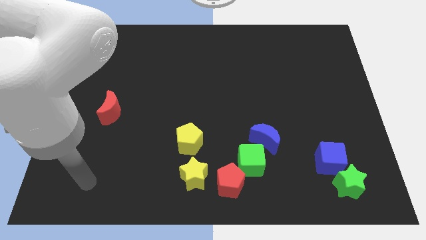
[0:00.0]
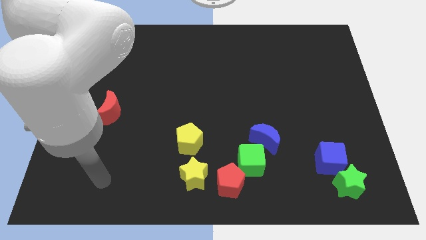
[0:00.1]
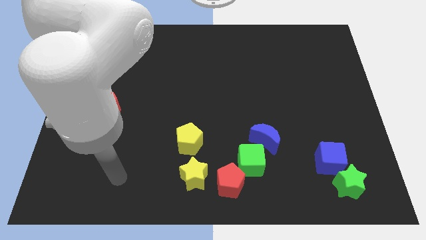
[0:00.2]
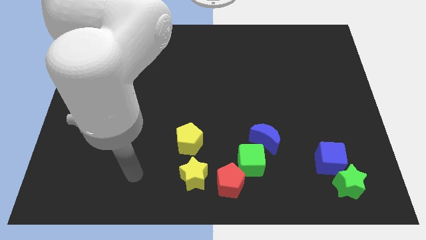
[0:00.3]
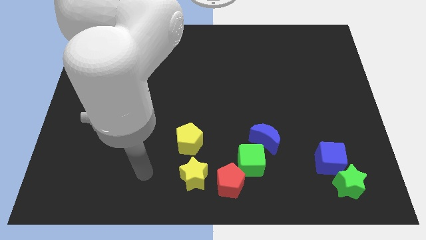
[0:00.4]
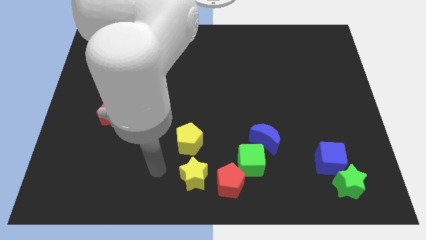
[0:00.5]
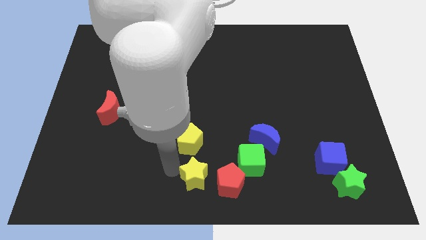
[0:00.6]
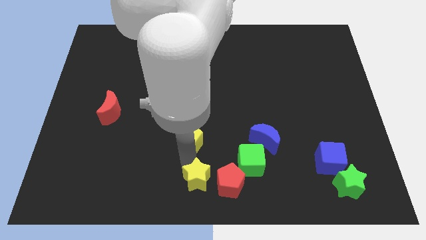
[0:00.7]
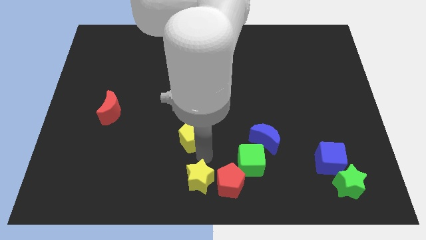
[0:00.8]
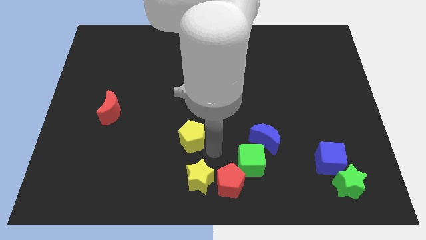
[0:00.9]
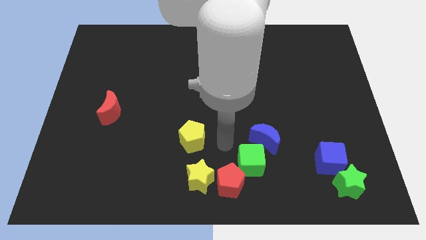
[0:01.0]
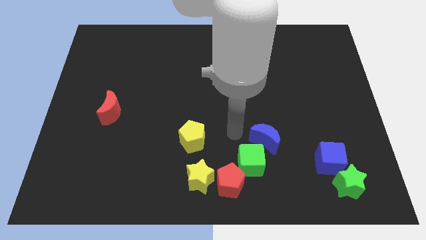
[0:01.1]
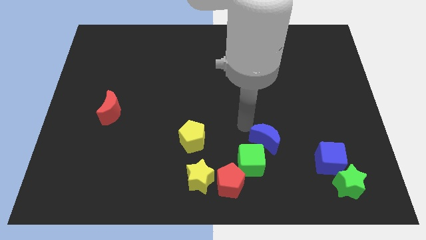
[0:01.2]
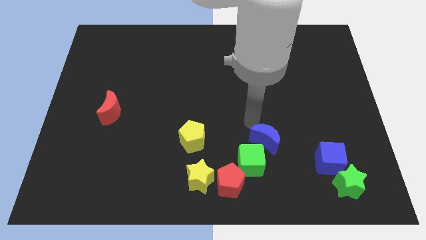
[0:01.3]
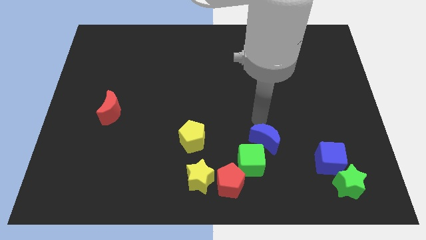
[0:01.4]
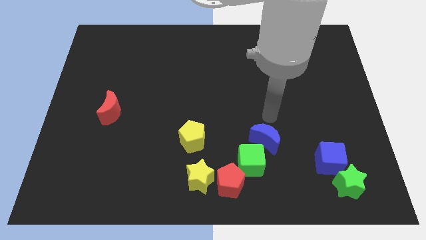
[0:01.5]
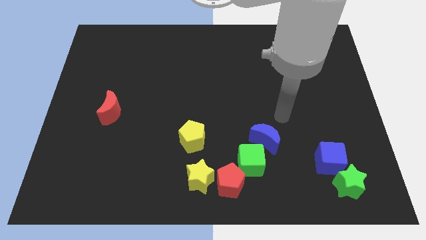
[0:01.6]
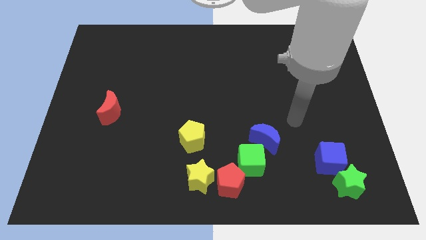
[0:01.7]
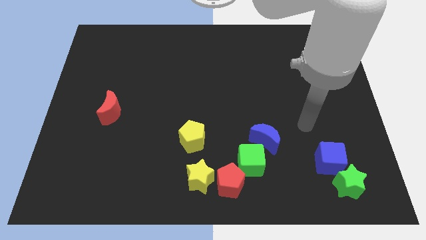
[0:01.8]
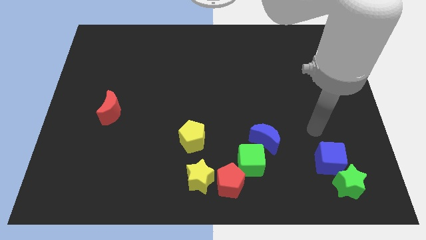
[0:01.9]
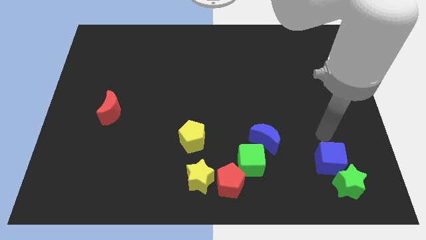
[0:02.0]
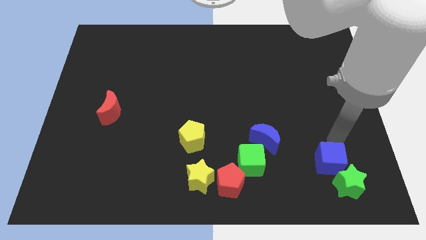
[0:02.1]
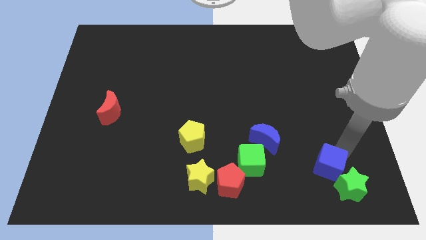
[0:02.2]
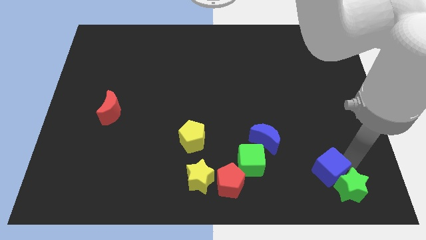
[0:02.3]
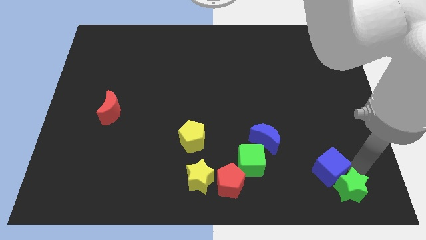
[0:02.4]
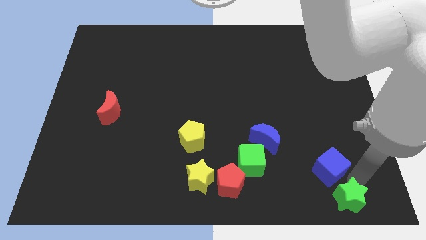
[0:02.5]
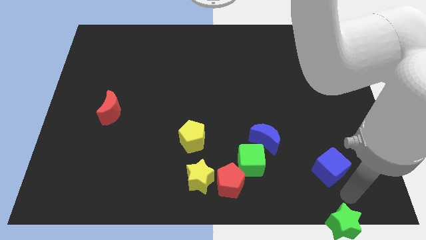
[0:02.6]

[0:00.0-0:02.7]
pull the blue cube apart from the green star

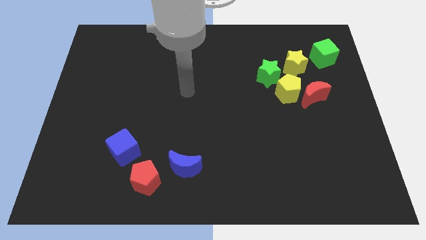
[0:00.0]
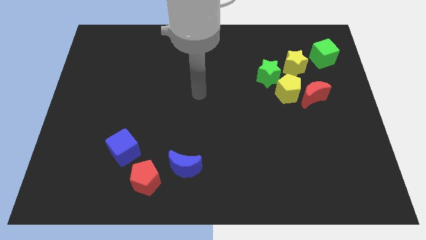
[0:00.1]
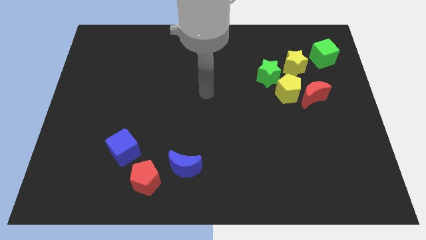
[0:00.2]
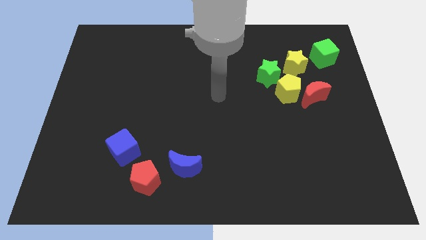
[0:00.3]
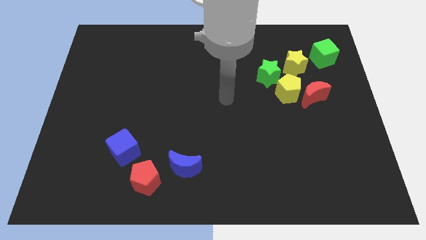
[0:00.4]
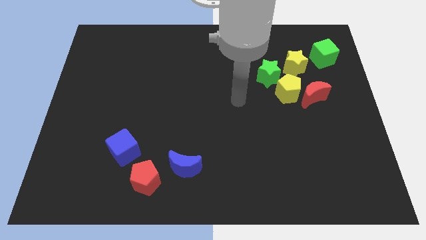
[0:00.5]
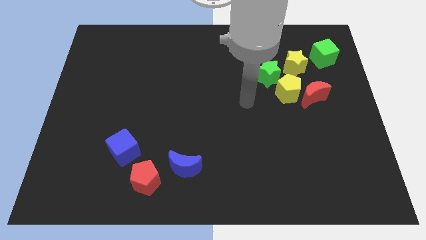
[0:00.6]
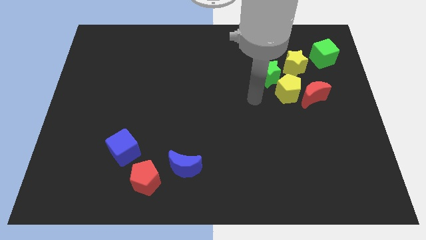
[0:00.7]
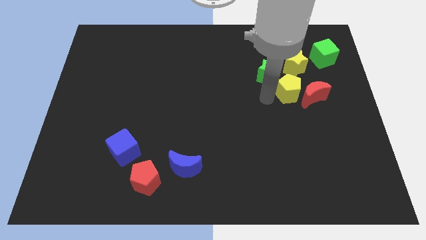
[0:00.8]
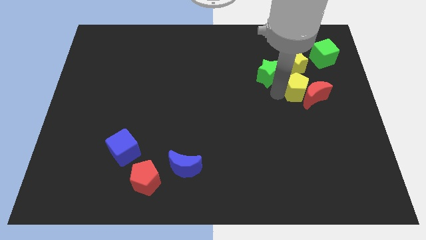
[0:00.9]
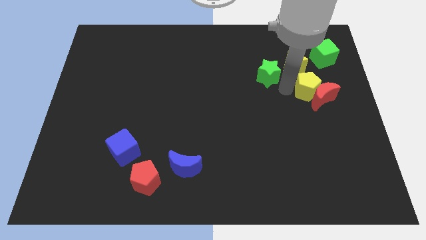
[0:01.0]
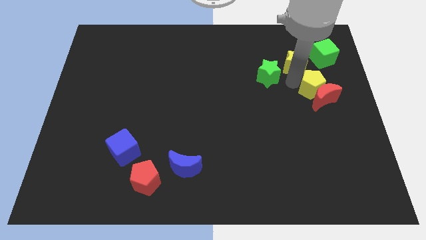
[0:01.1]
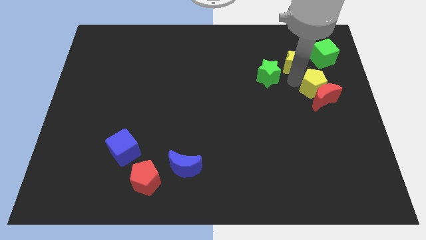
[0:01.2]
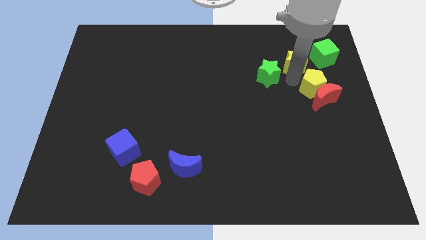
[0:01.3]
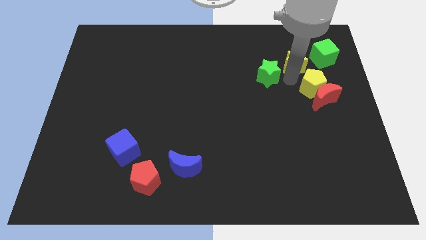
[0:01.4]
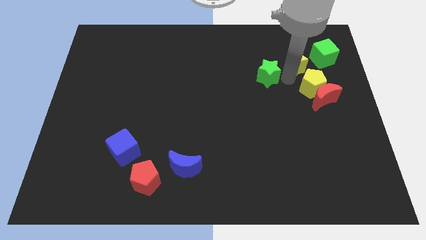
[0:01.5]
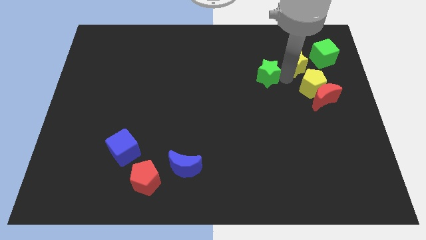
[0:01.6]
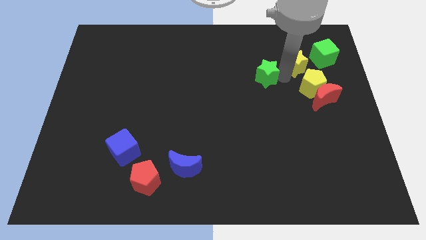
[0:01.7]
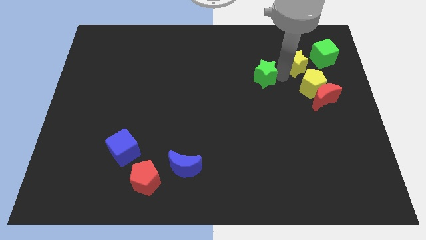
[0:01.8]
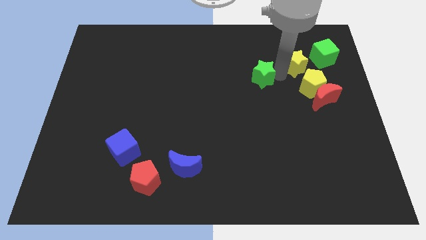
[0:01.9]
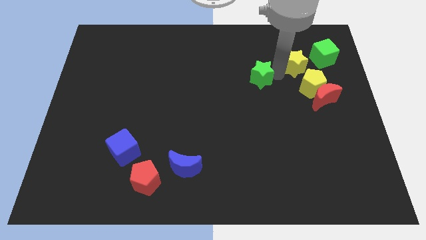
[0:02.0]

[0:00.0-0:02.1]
pull the green star apart from the yellow pentagon and yellow star

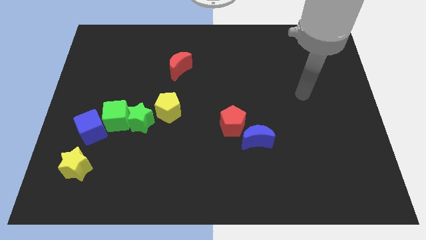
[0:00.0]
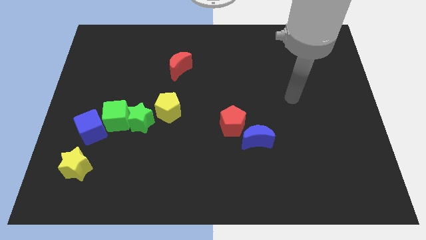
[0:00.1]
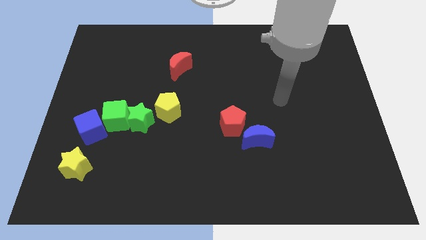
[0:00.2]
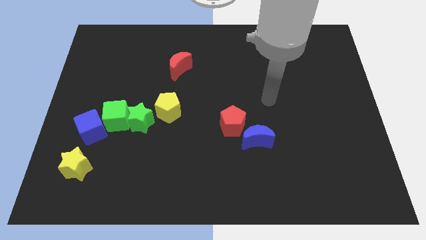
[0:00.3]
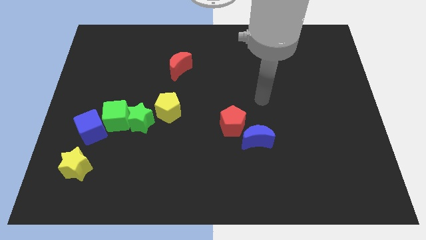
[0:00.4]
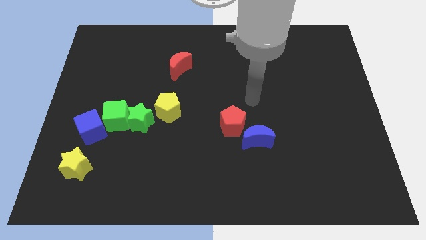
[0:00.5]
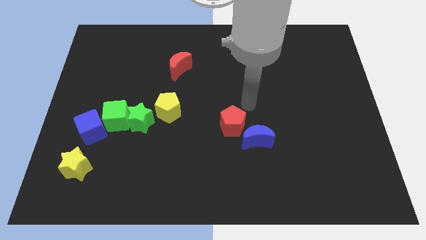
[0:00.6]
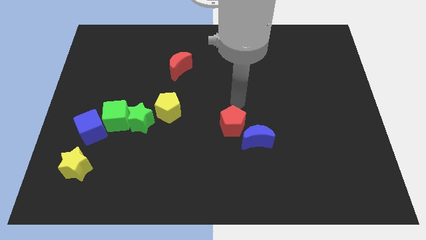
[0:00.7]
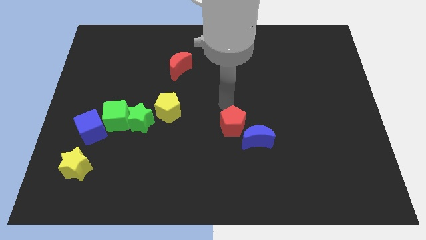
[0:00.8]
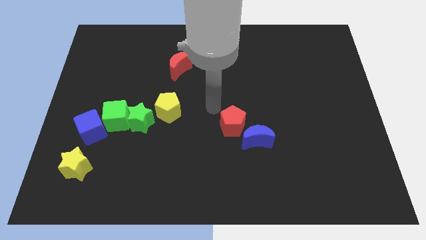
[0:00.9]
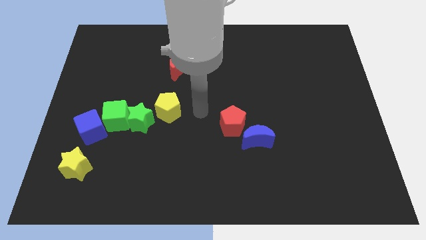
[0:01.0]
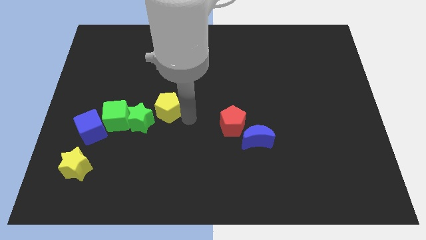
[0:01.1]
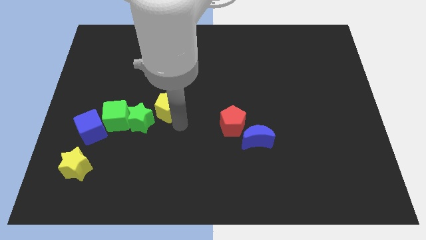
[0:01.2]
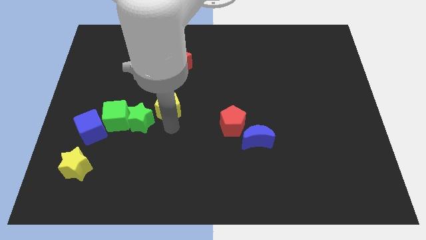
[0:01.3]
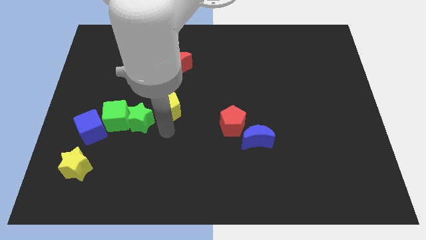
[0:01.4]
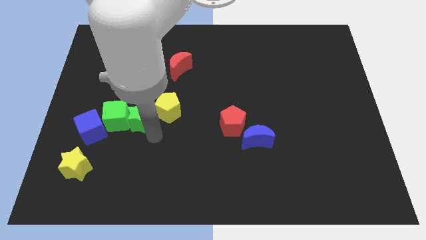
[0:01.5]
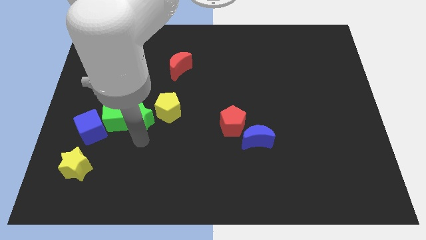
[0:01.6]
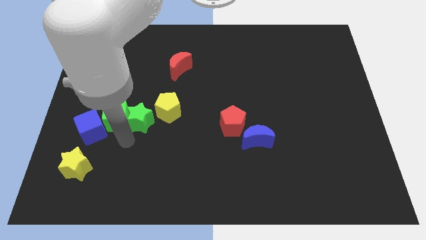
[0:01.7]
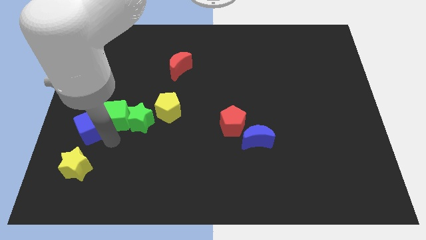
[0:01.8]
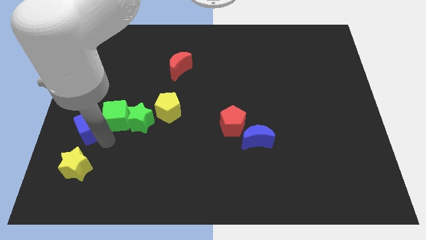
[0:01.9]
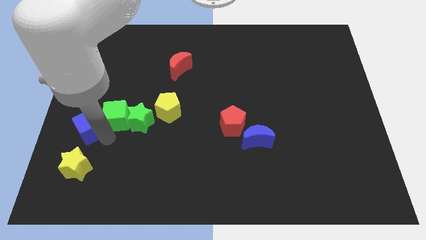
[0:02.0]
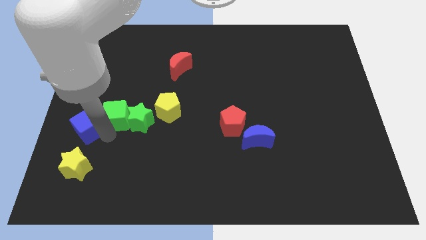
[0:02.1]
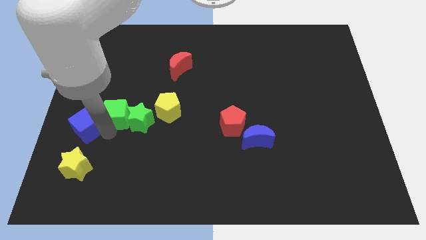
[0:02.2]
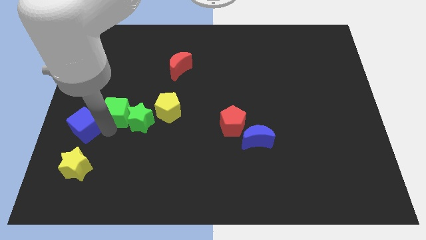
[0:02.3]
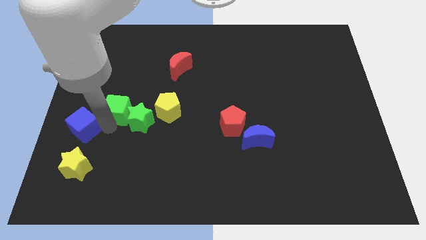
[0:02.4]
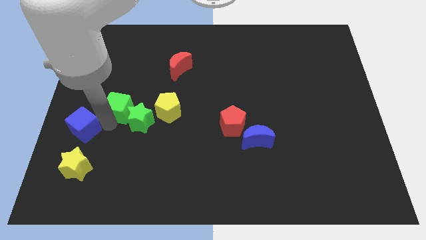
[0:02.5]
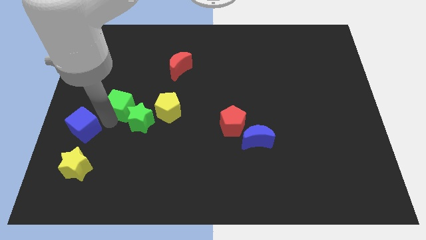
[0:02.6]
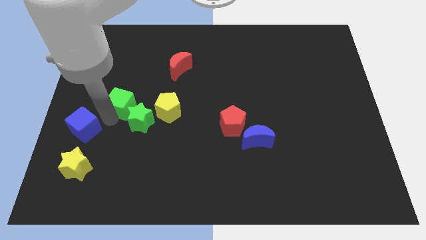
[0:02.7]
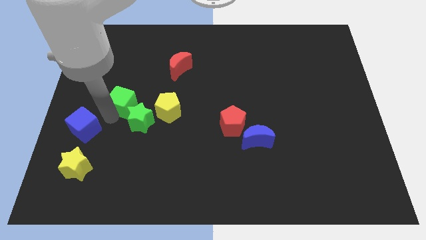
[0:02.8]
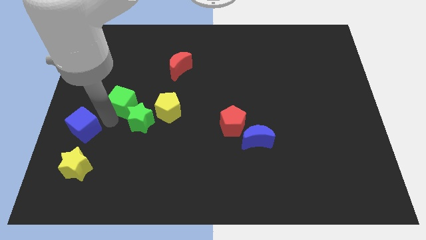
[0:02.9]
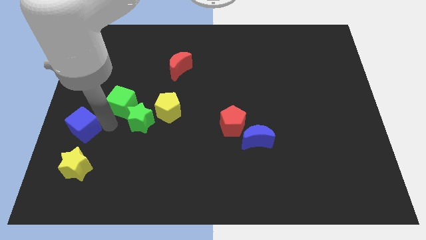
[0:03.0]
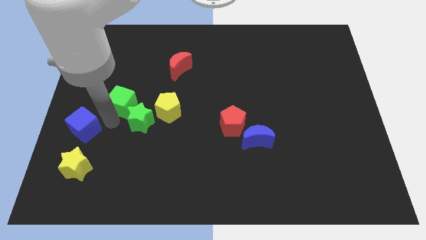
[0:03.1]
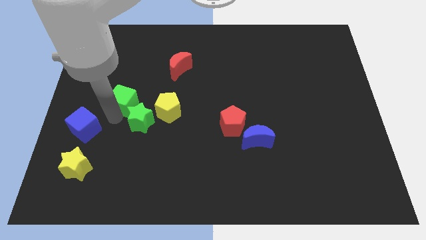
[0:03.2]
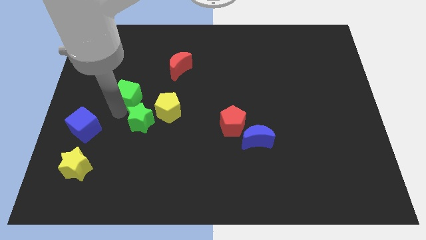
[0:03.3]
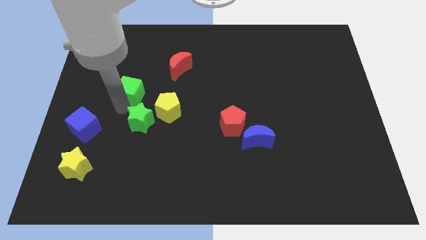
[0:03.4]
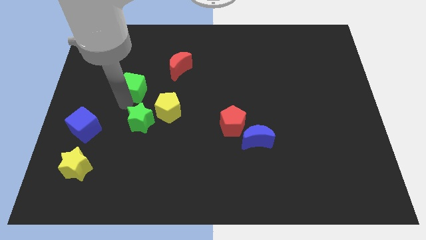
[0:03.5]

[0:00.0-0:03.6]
move the green cube away from the green star and blue cube

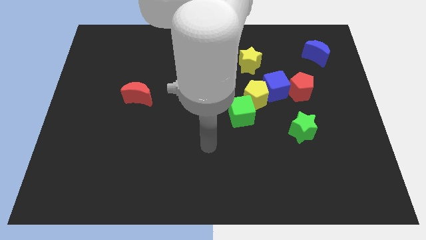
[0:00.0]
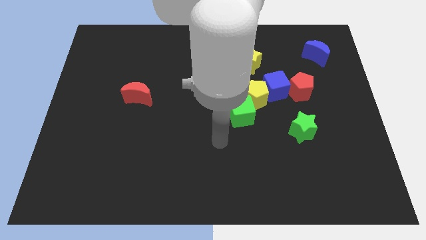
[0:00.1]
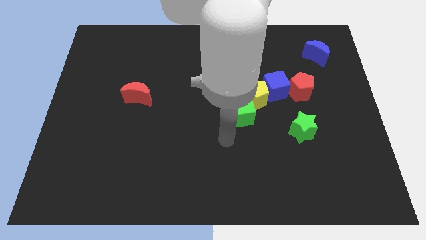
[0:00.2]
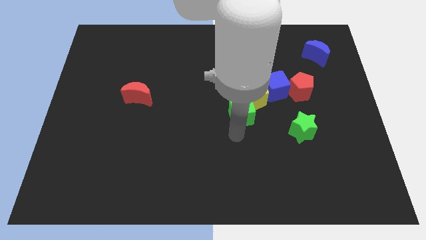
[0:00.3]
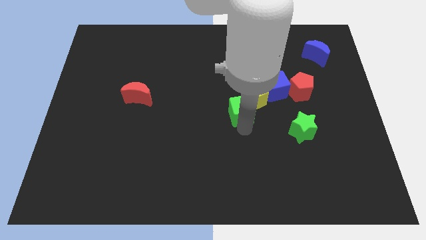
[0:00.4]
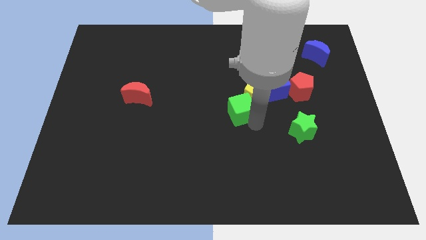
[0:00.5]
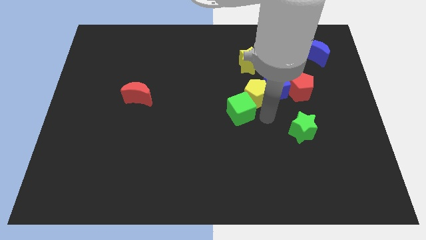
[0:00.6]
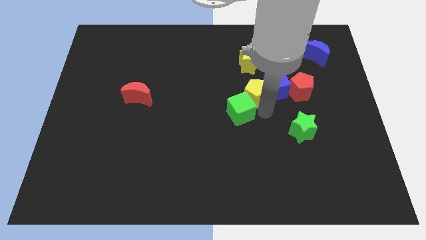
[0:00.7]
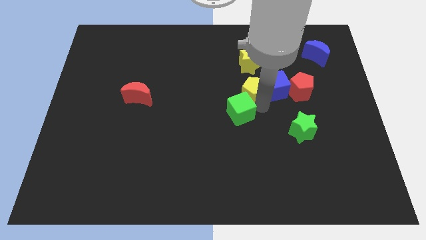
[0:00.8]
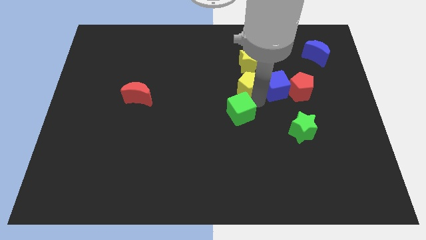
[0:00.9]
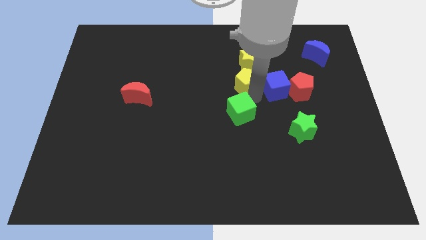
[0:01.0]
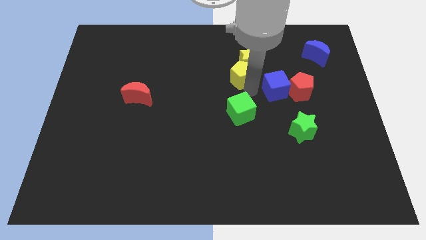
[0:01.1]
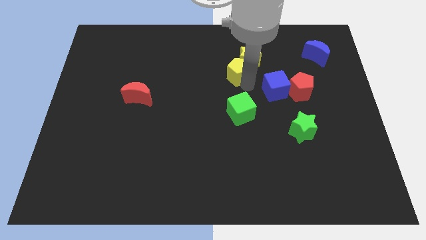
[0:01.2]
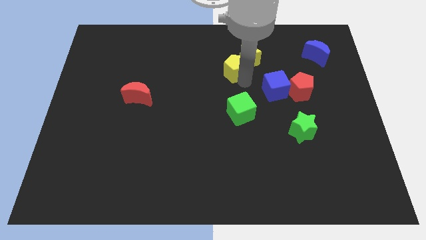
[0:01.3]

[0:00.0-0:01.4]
separate the yellow pentagon from the blue cube and green cube
